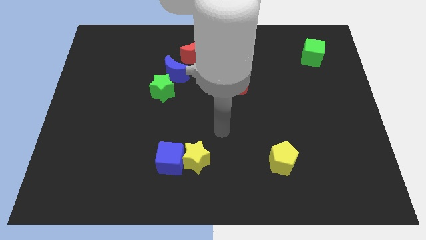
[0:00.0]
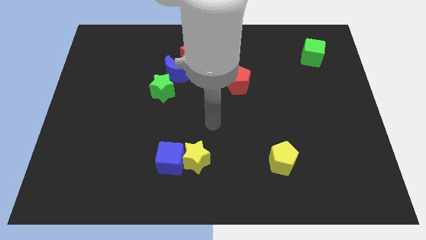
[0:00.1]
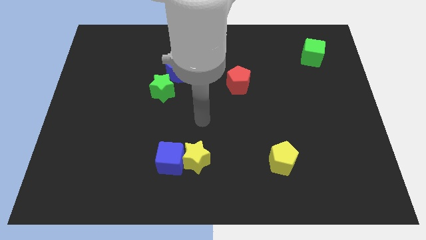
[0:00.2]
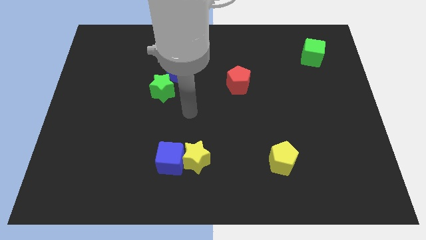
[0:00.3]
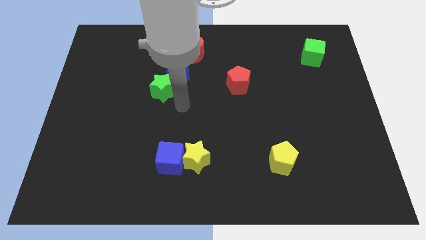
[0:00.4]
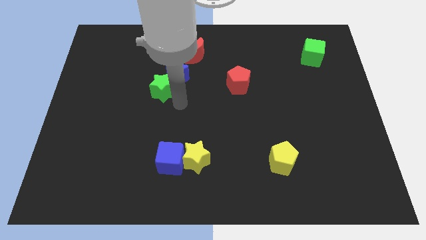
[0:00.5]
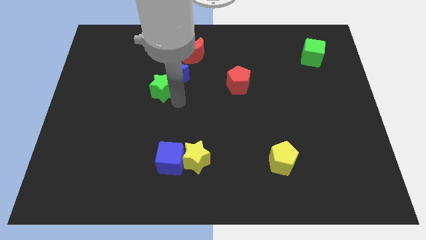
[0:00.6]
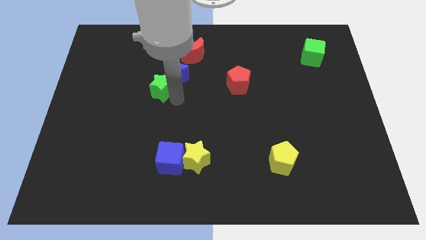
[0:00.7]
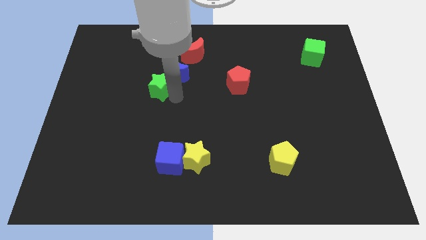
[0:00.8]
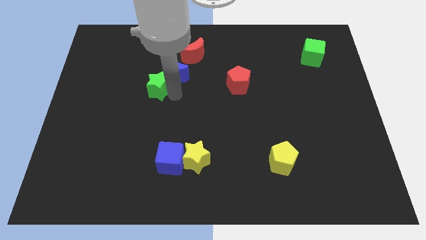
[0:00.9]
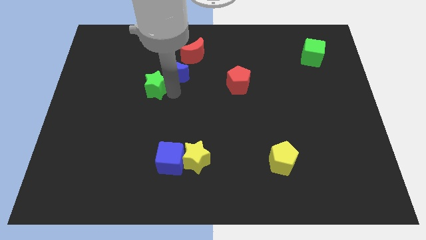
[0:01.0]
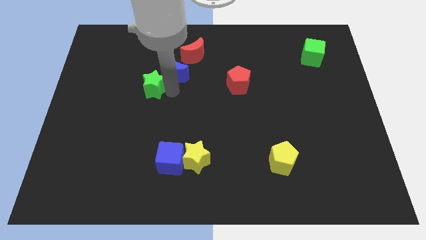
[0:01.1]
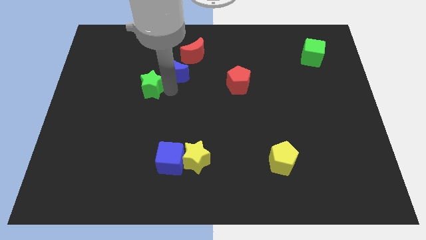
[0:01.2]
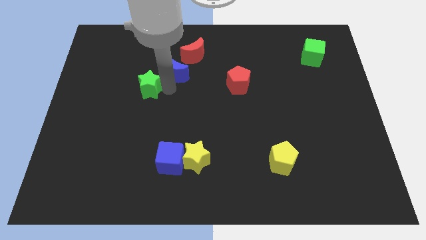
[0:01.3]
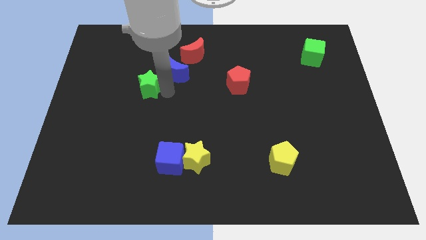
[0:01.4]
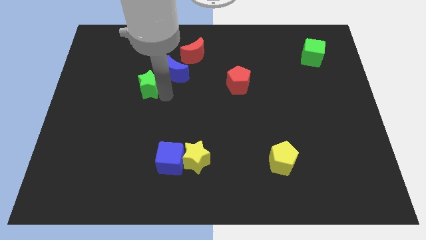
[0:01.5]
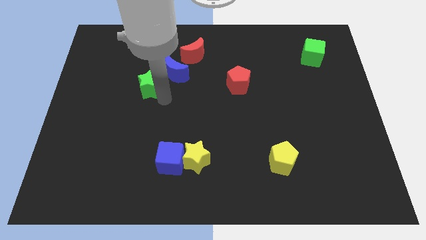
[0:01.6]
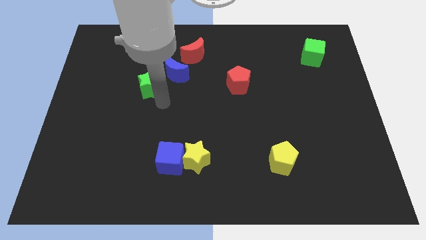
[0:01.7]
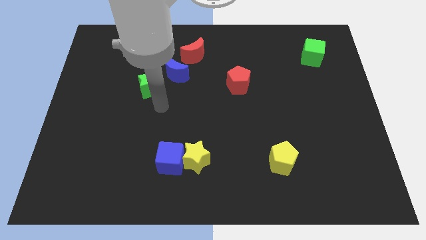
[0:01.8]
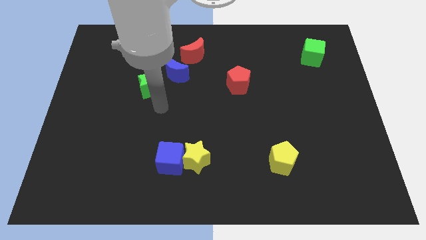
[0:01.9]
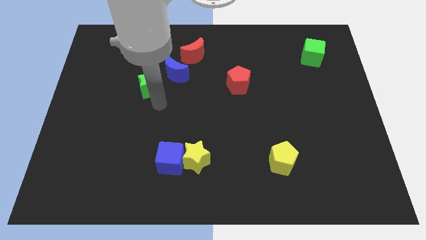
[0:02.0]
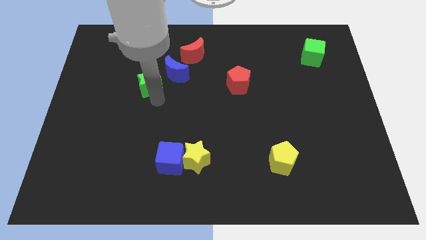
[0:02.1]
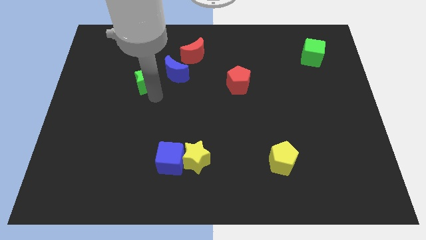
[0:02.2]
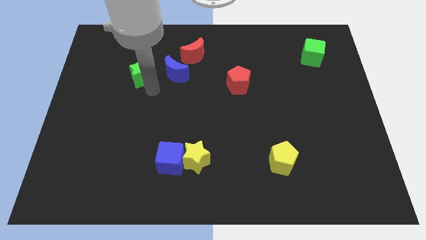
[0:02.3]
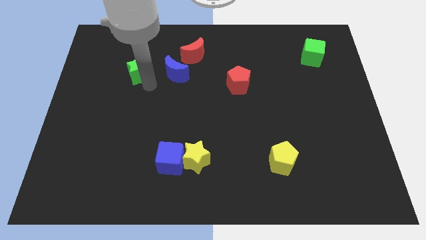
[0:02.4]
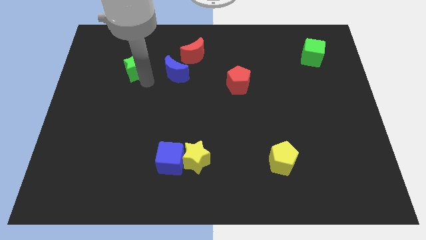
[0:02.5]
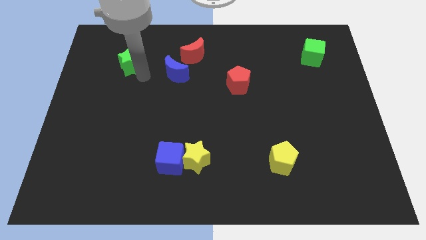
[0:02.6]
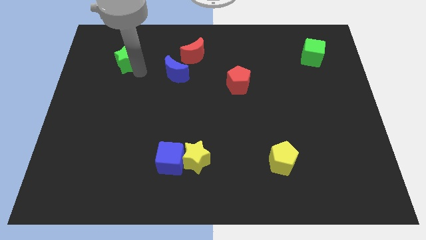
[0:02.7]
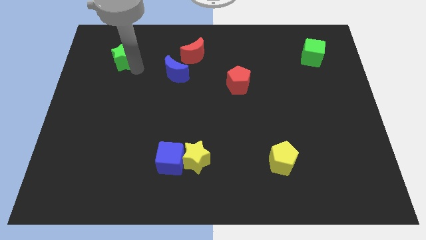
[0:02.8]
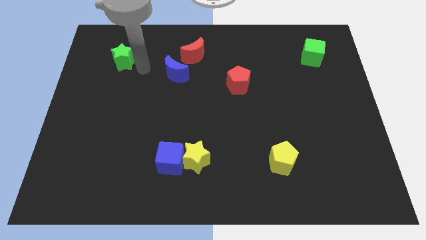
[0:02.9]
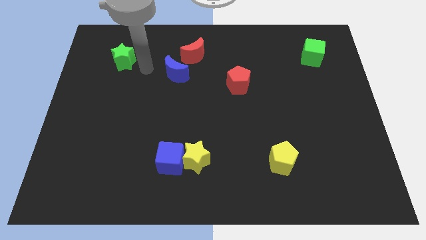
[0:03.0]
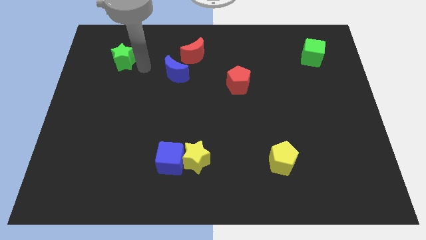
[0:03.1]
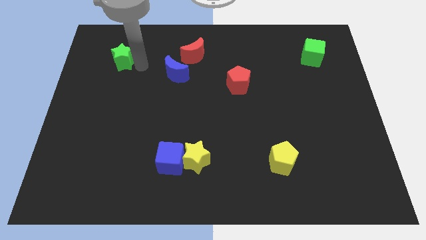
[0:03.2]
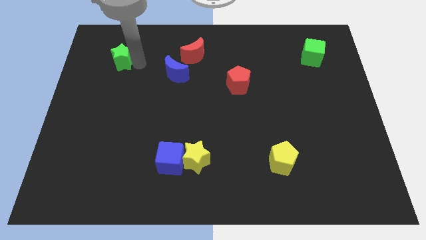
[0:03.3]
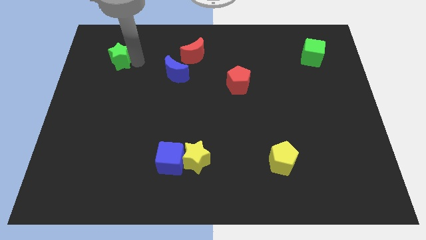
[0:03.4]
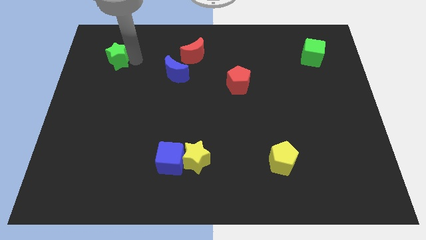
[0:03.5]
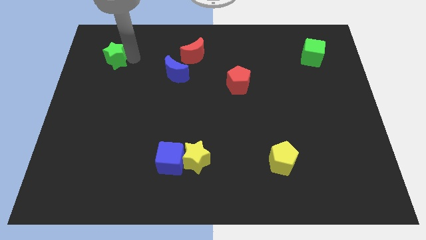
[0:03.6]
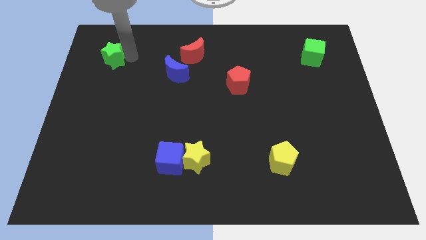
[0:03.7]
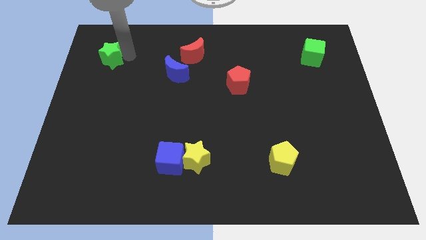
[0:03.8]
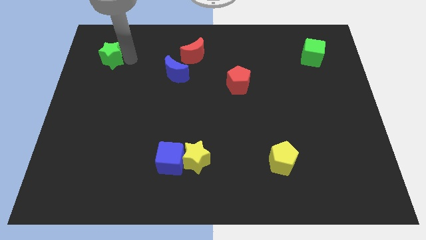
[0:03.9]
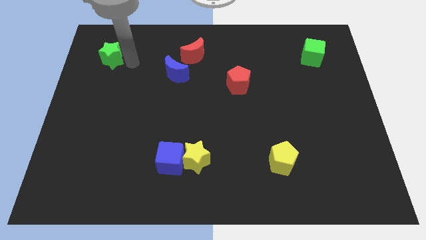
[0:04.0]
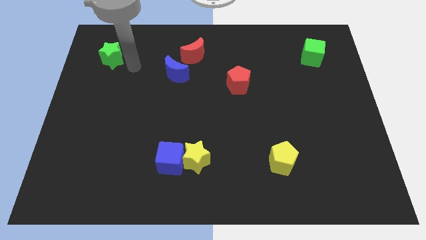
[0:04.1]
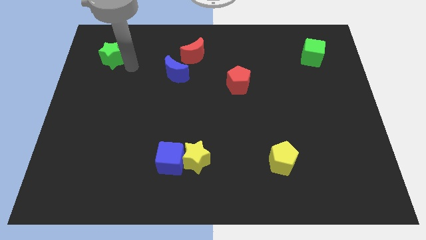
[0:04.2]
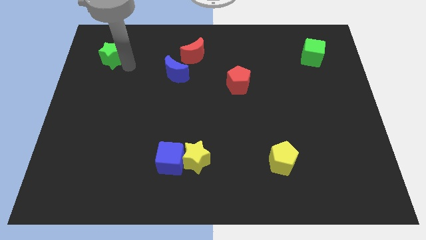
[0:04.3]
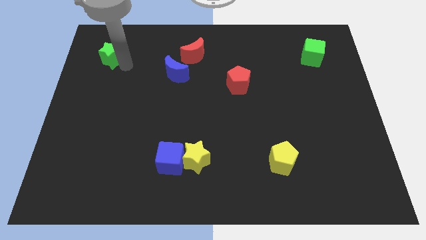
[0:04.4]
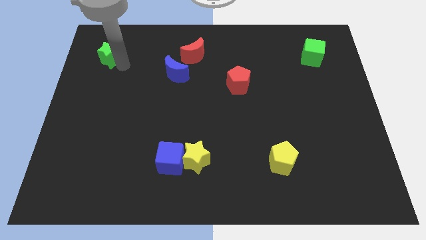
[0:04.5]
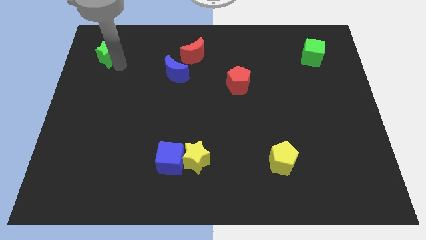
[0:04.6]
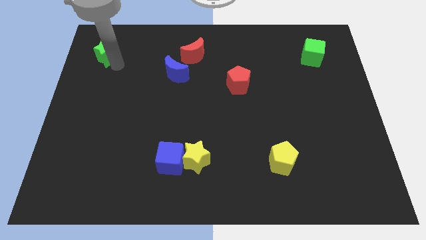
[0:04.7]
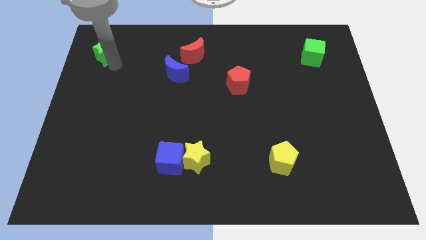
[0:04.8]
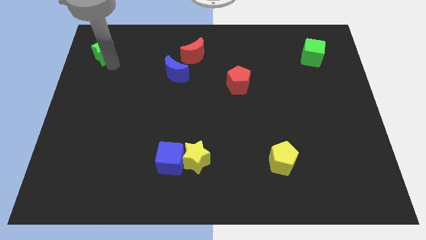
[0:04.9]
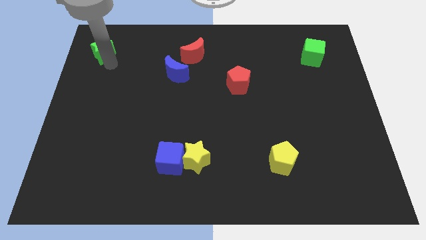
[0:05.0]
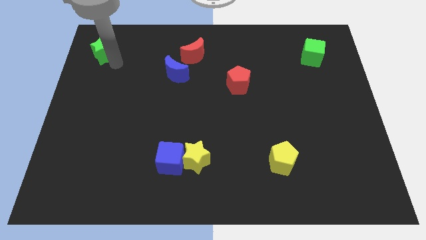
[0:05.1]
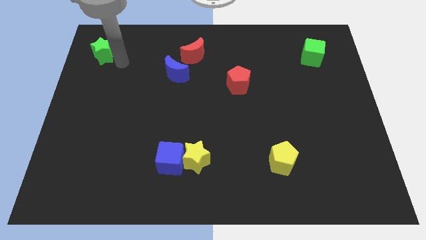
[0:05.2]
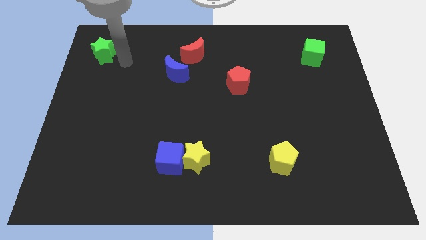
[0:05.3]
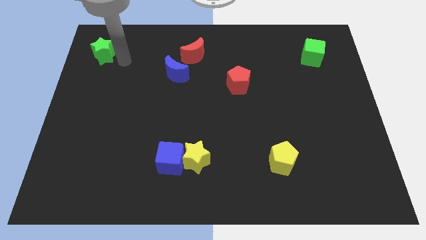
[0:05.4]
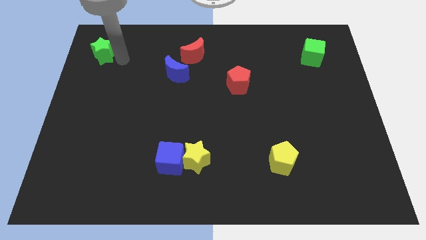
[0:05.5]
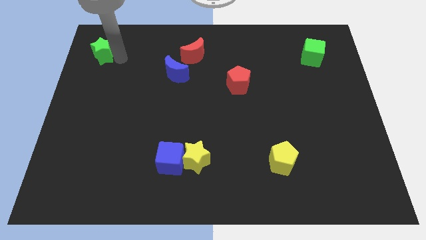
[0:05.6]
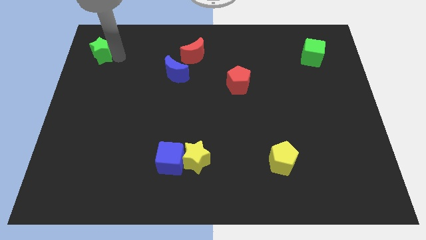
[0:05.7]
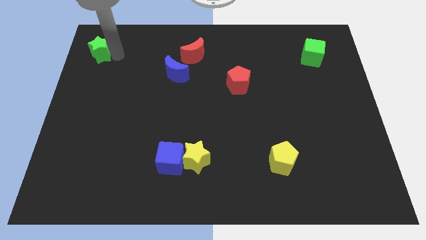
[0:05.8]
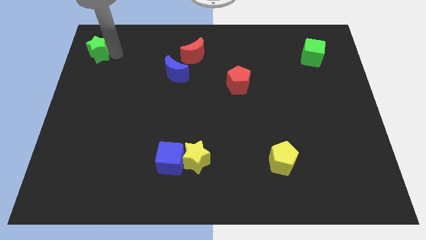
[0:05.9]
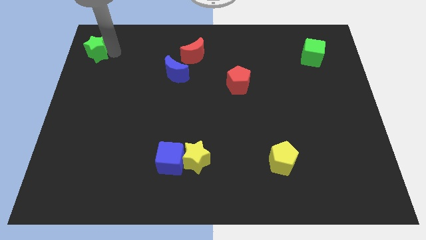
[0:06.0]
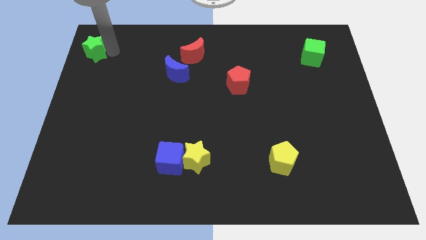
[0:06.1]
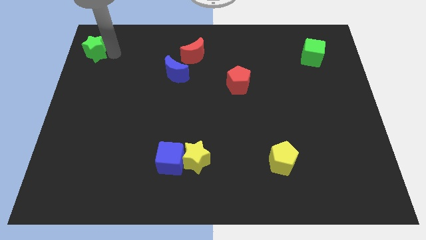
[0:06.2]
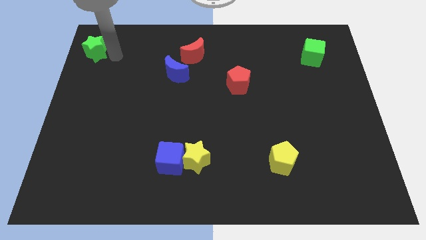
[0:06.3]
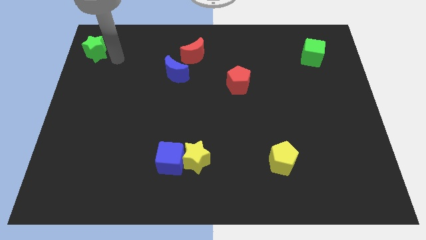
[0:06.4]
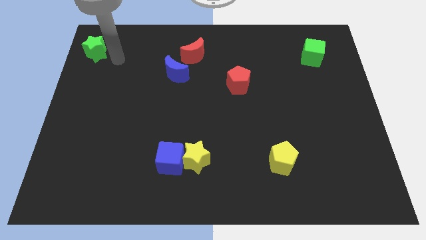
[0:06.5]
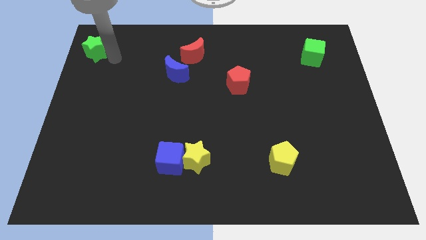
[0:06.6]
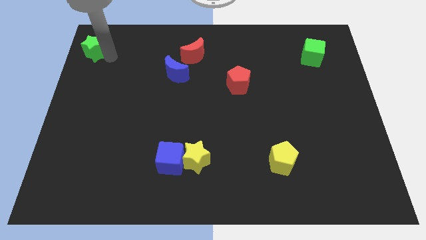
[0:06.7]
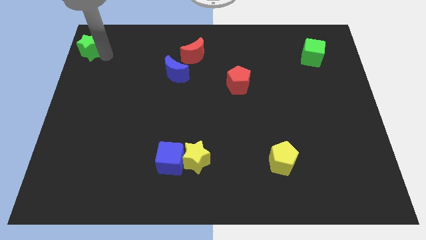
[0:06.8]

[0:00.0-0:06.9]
push the green star to the upper left corner
